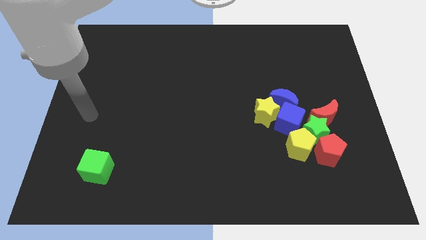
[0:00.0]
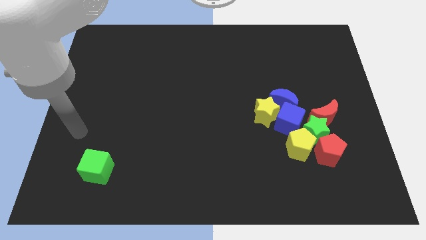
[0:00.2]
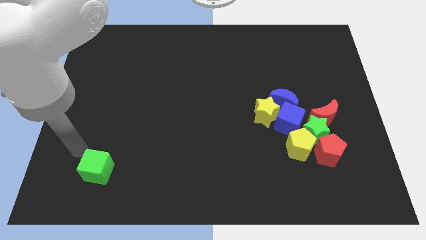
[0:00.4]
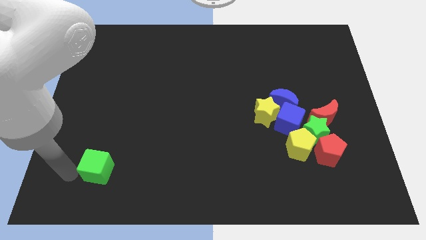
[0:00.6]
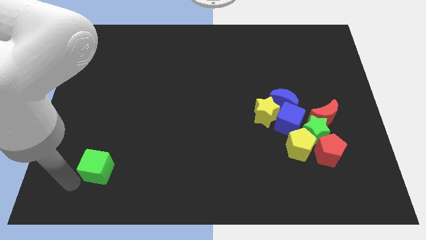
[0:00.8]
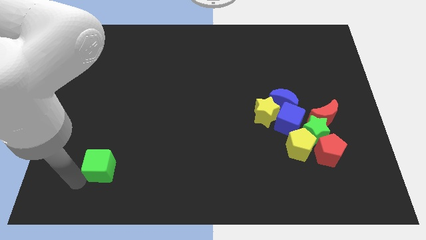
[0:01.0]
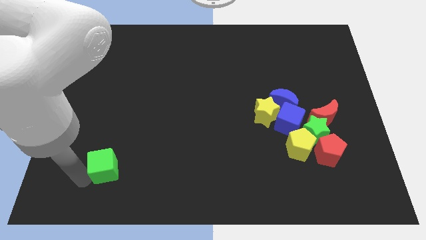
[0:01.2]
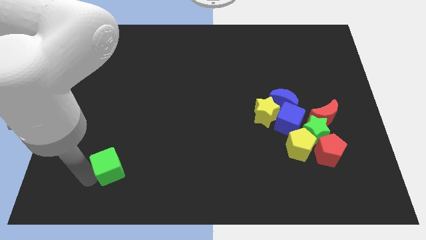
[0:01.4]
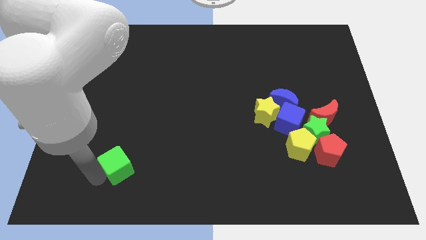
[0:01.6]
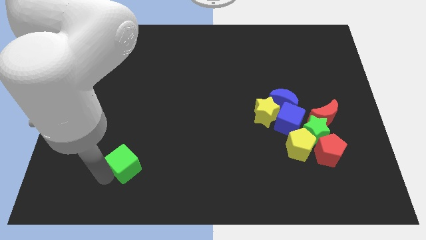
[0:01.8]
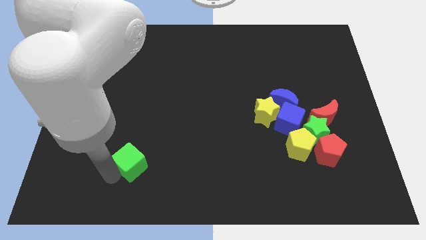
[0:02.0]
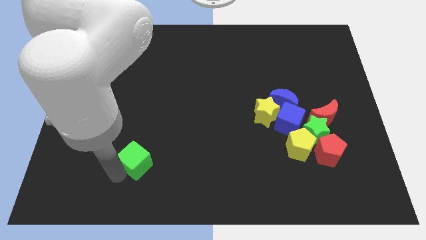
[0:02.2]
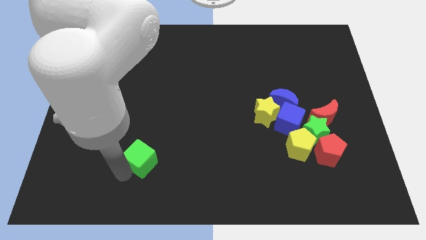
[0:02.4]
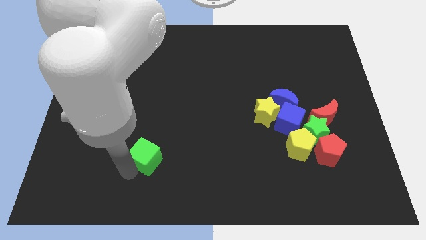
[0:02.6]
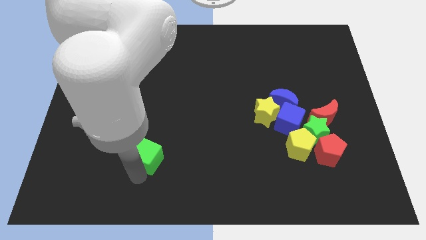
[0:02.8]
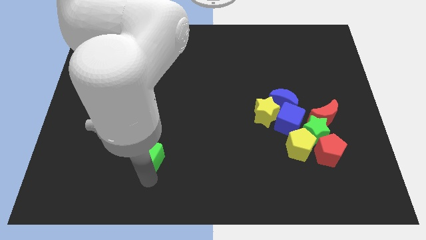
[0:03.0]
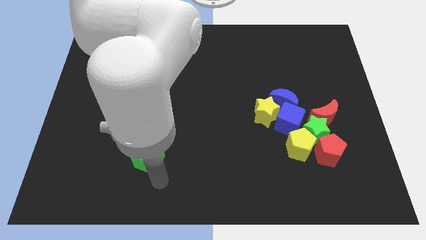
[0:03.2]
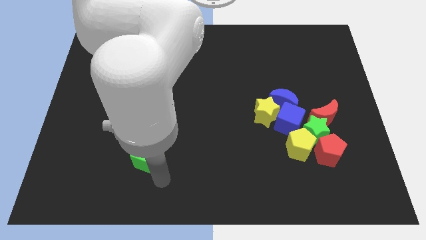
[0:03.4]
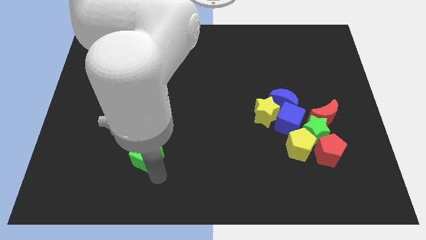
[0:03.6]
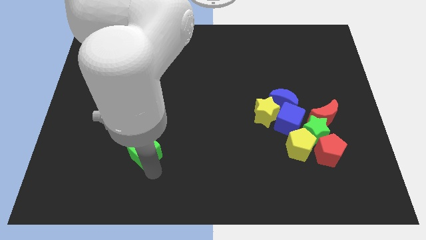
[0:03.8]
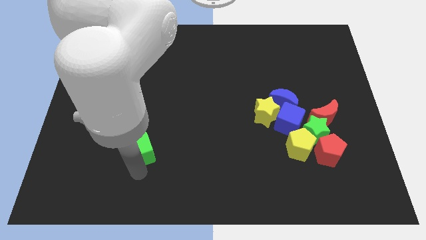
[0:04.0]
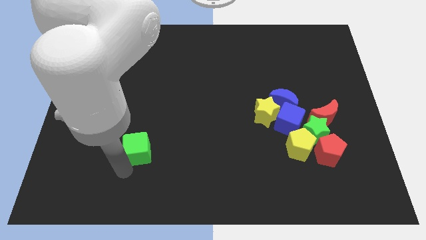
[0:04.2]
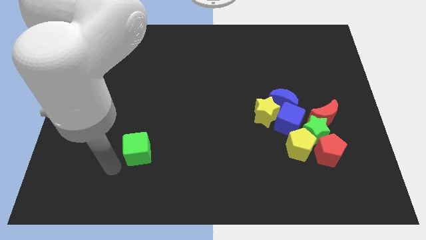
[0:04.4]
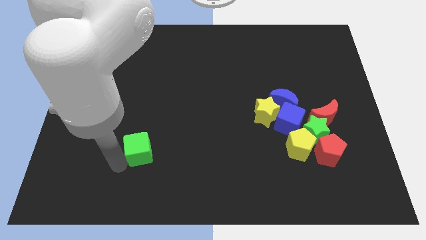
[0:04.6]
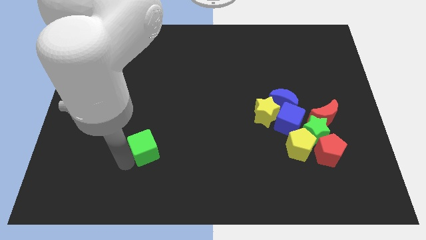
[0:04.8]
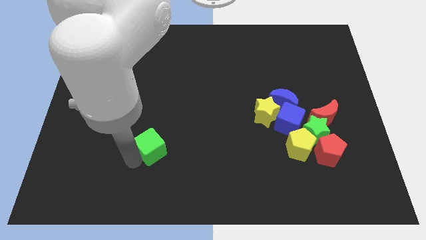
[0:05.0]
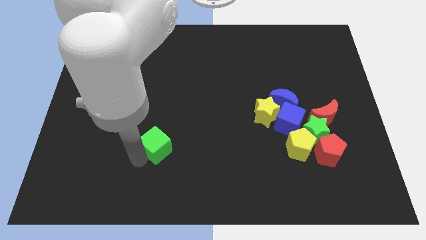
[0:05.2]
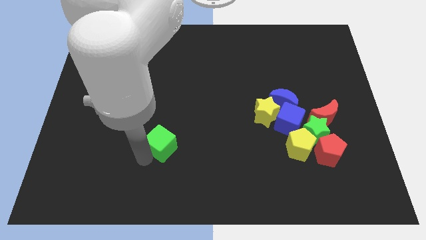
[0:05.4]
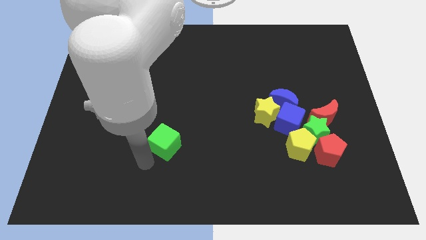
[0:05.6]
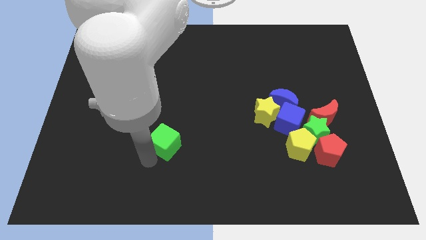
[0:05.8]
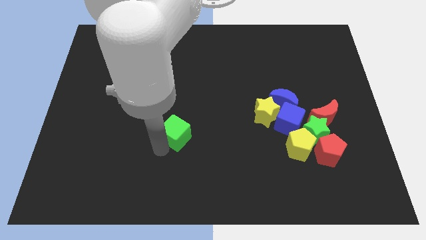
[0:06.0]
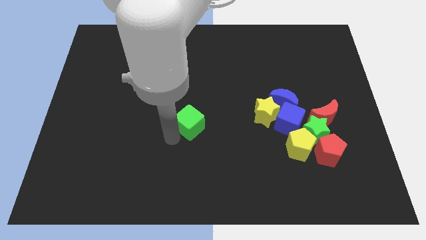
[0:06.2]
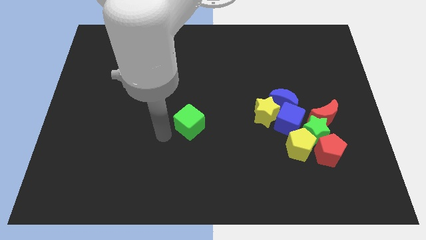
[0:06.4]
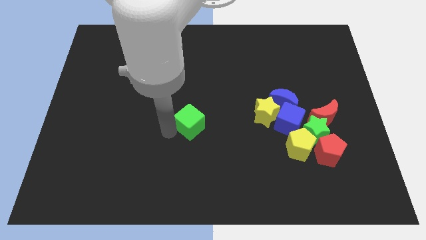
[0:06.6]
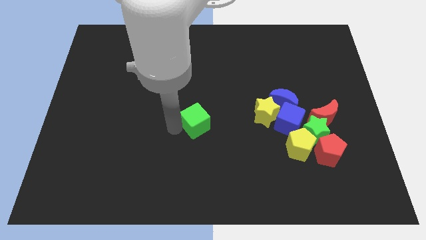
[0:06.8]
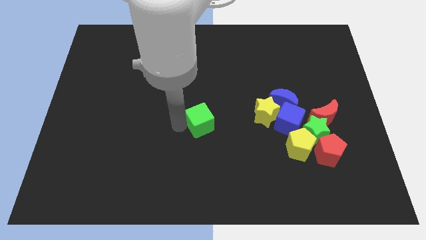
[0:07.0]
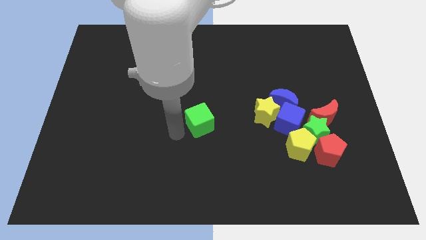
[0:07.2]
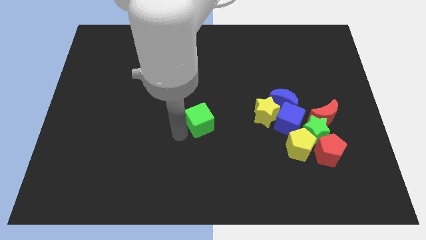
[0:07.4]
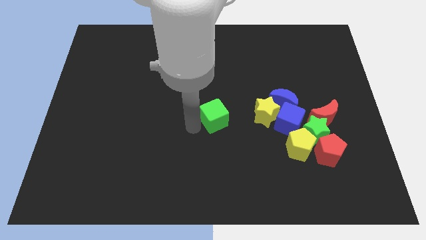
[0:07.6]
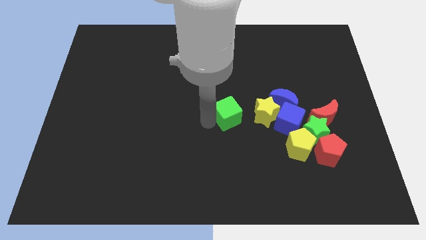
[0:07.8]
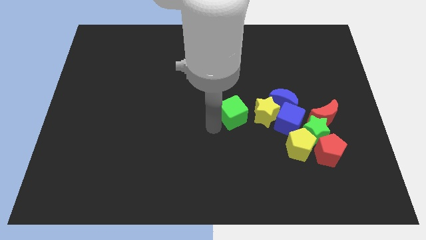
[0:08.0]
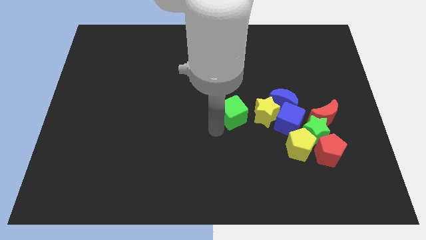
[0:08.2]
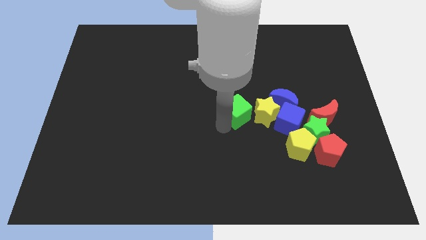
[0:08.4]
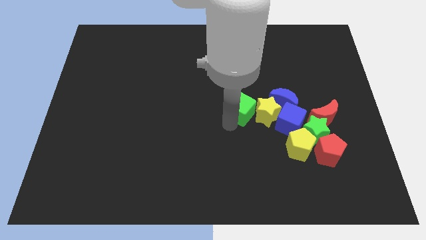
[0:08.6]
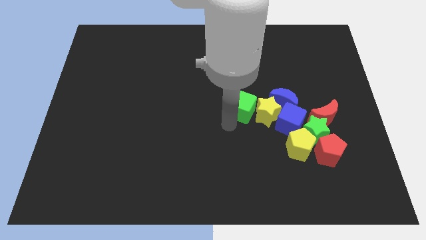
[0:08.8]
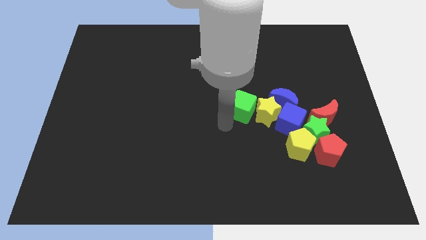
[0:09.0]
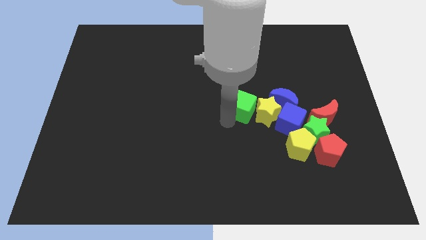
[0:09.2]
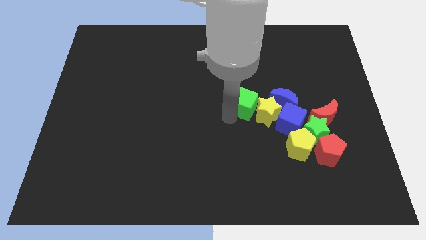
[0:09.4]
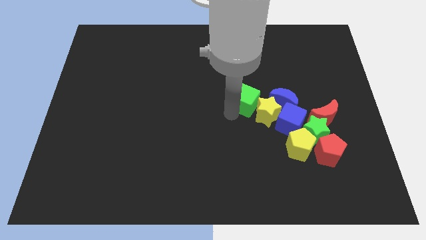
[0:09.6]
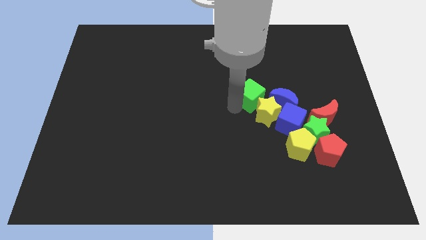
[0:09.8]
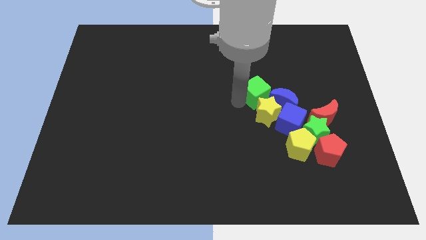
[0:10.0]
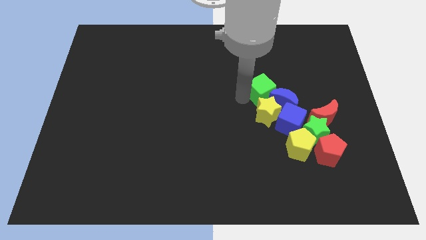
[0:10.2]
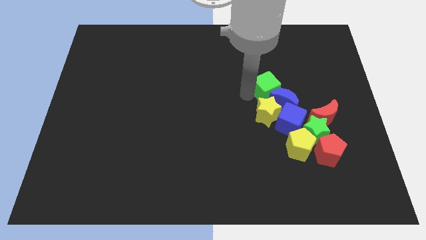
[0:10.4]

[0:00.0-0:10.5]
slide the green cube to the top of the blue cube

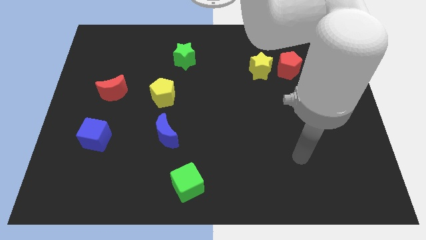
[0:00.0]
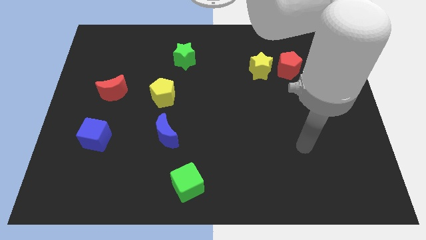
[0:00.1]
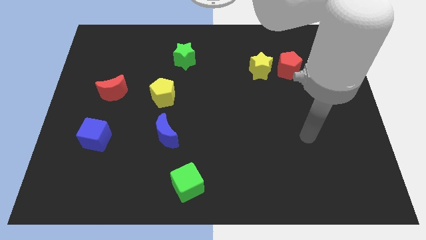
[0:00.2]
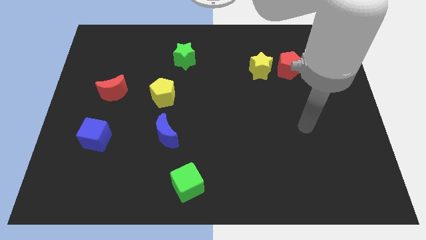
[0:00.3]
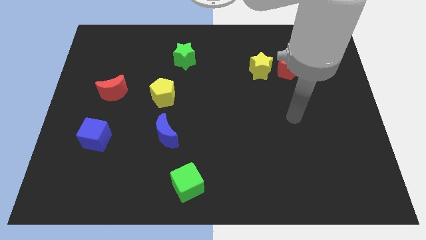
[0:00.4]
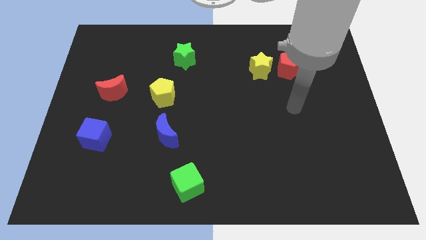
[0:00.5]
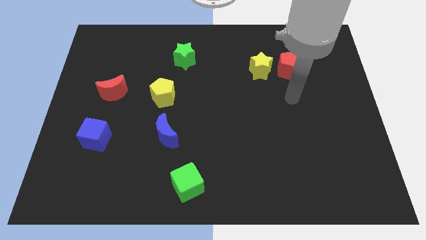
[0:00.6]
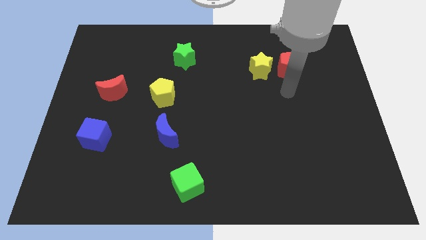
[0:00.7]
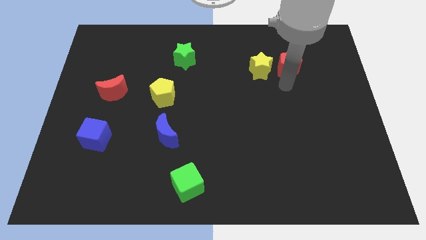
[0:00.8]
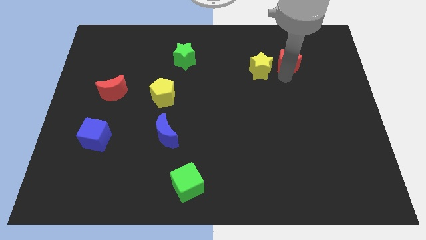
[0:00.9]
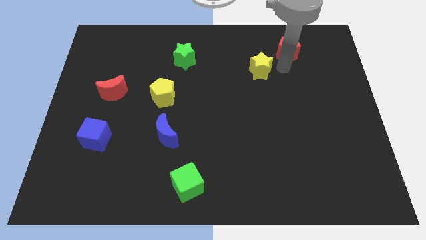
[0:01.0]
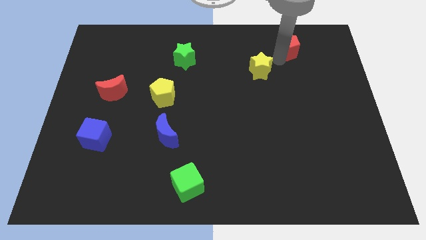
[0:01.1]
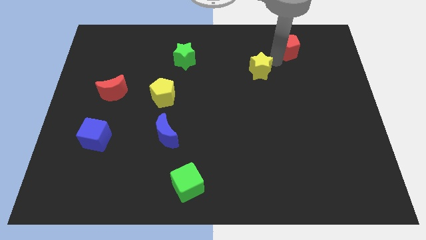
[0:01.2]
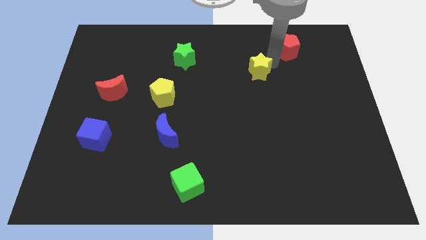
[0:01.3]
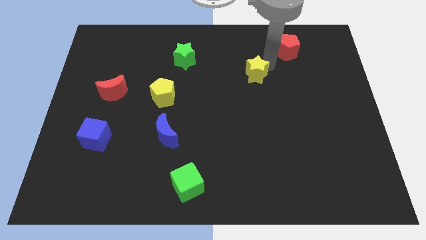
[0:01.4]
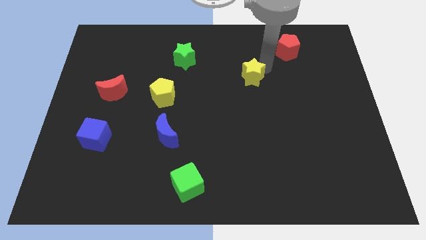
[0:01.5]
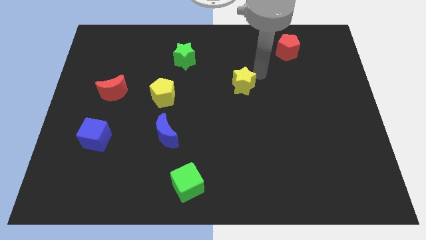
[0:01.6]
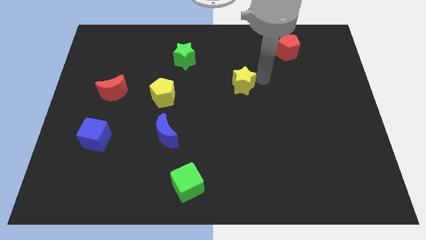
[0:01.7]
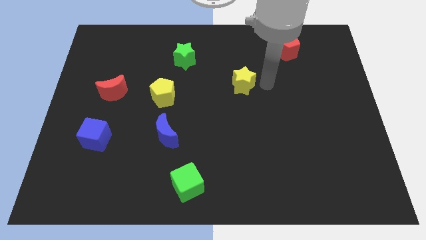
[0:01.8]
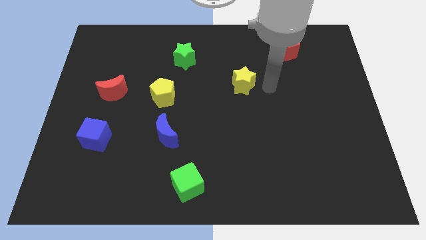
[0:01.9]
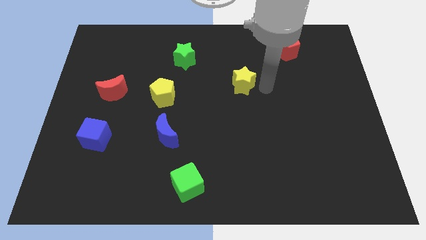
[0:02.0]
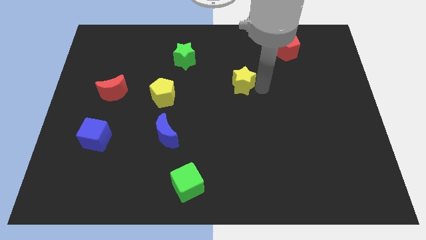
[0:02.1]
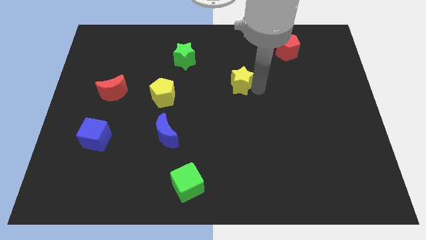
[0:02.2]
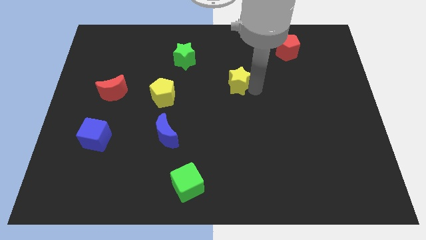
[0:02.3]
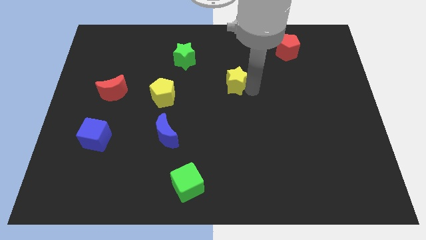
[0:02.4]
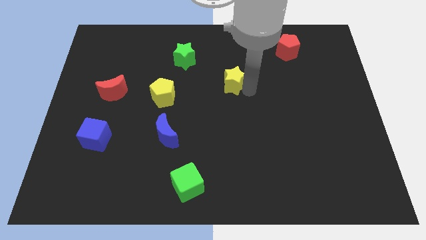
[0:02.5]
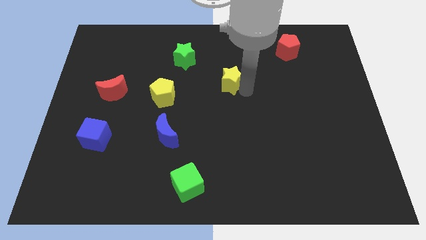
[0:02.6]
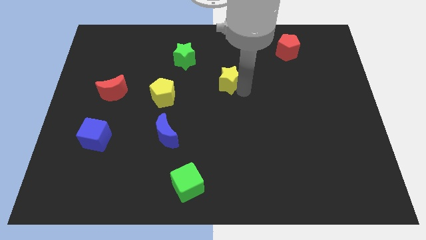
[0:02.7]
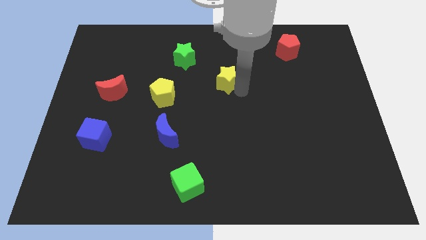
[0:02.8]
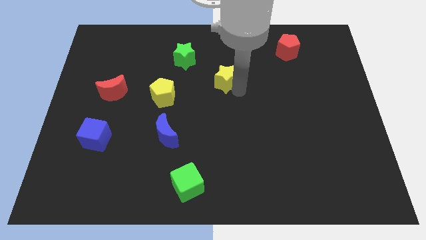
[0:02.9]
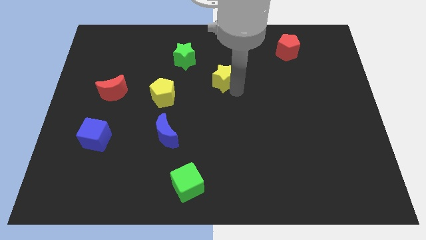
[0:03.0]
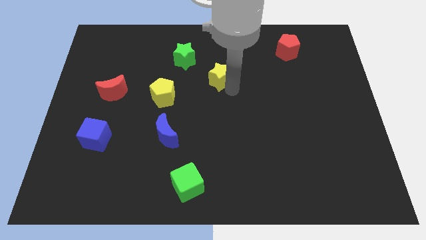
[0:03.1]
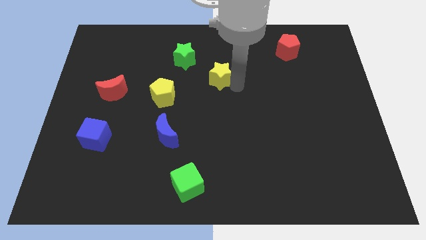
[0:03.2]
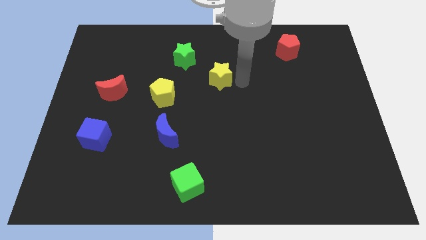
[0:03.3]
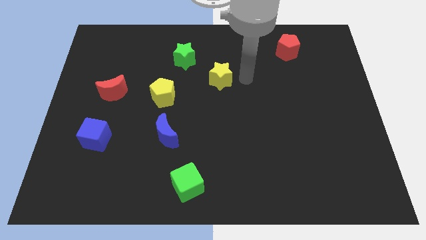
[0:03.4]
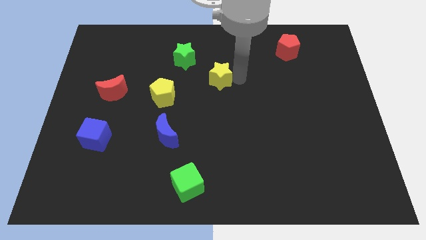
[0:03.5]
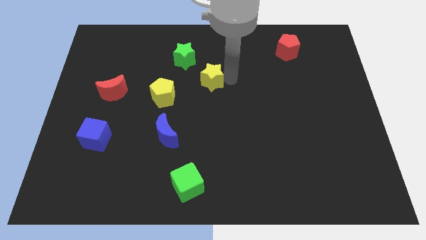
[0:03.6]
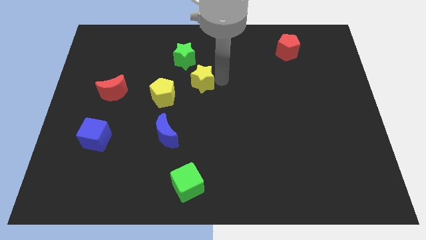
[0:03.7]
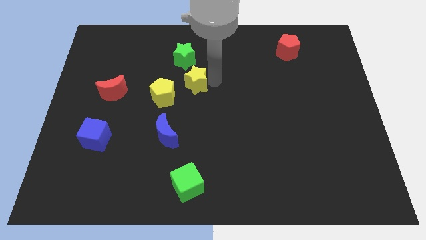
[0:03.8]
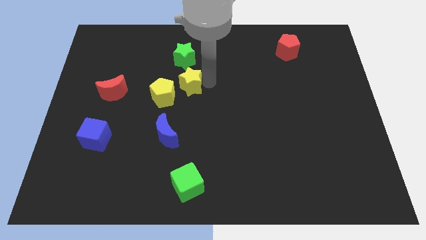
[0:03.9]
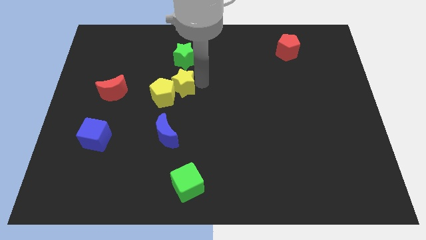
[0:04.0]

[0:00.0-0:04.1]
move the yellow star to the top side of the blue moon
